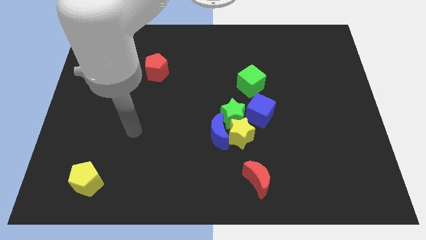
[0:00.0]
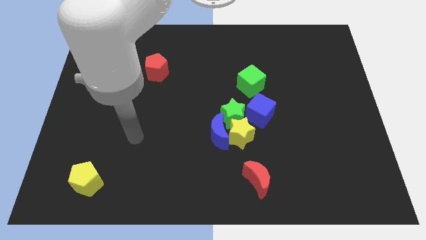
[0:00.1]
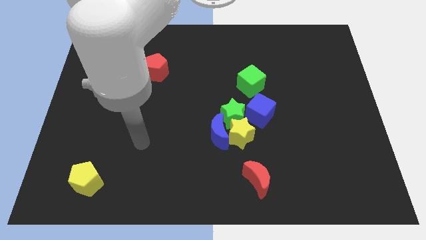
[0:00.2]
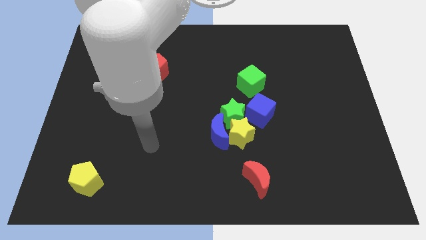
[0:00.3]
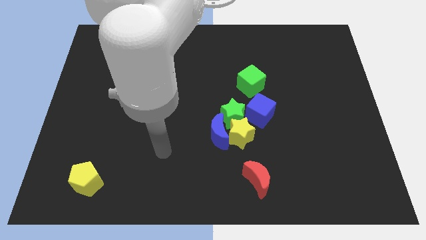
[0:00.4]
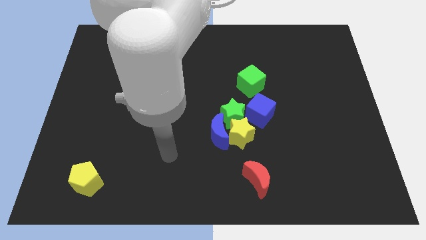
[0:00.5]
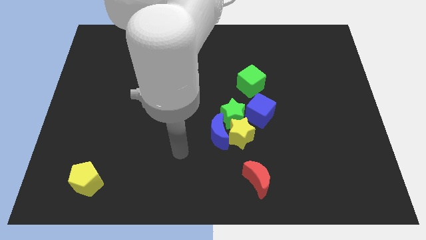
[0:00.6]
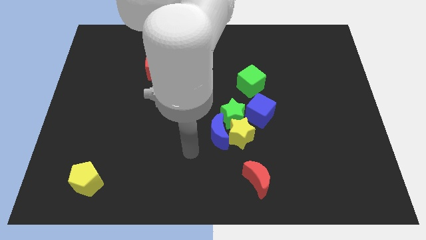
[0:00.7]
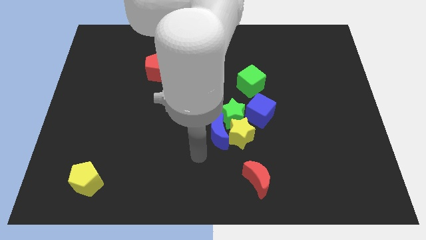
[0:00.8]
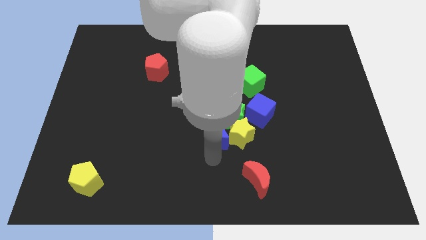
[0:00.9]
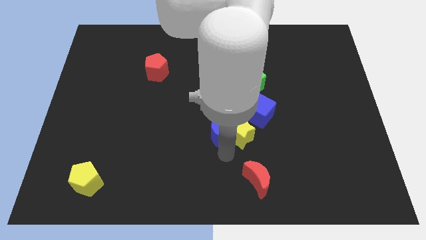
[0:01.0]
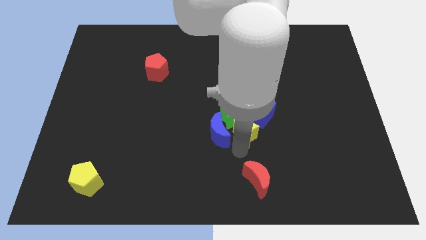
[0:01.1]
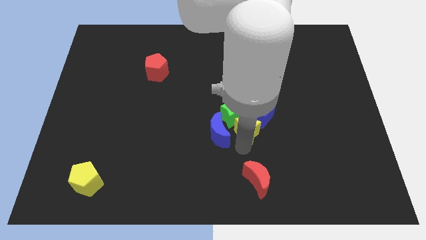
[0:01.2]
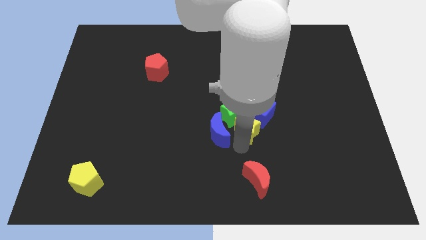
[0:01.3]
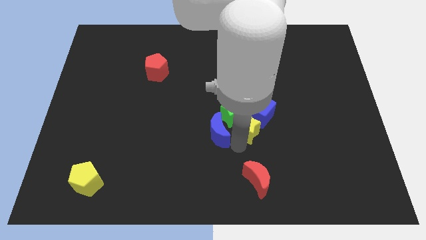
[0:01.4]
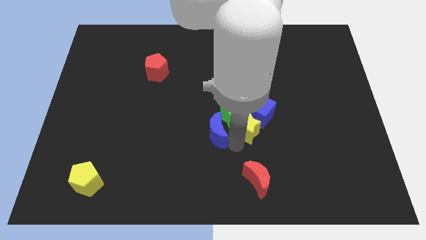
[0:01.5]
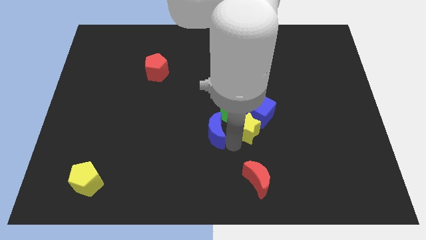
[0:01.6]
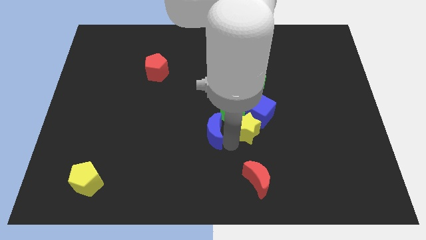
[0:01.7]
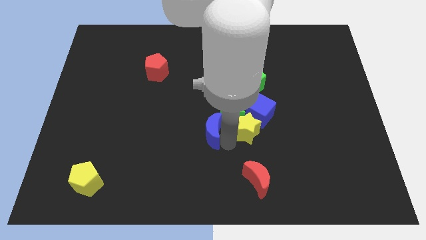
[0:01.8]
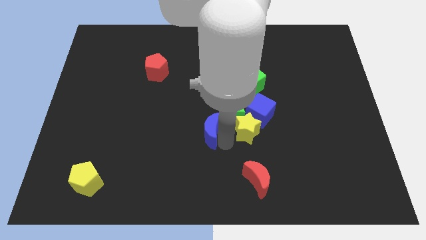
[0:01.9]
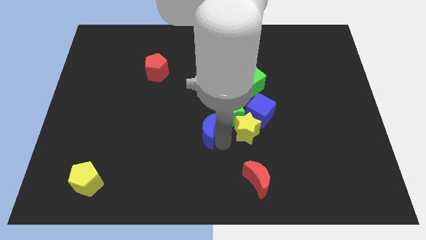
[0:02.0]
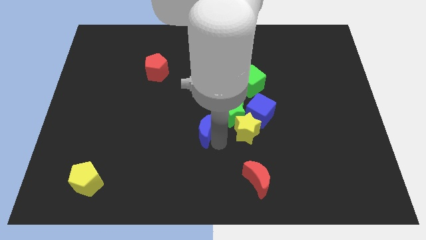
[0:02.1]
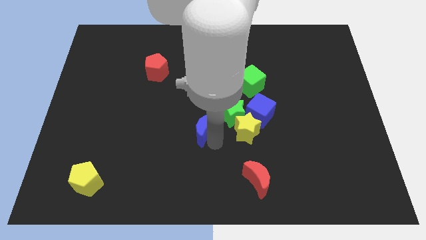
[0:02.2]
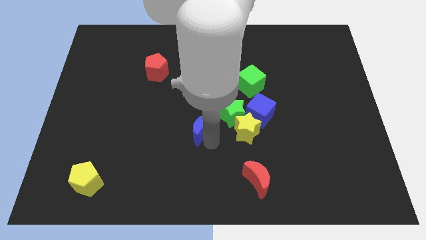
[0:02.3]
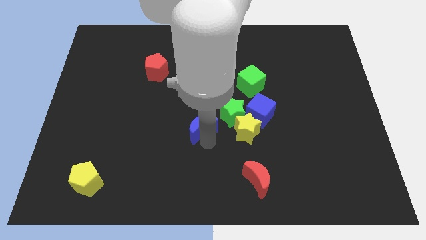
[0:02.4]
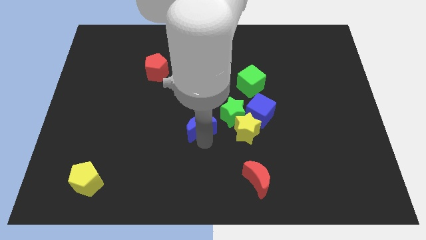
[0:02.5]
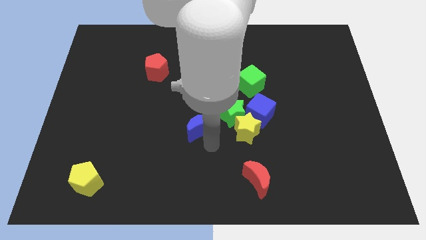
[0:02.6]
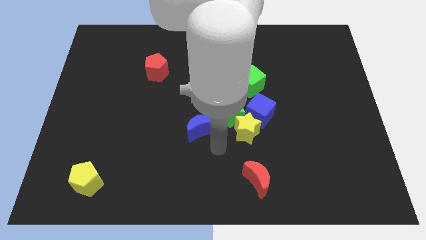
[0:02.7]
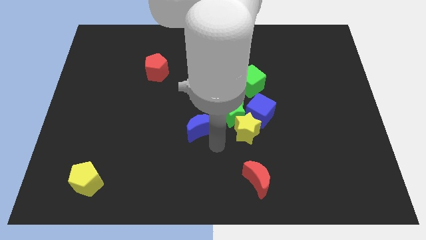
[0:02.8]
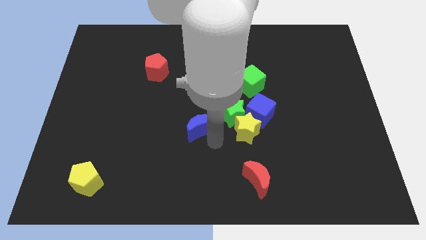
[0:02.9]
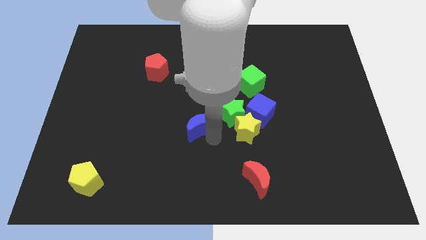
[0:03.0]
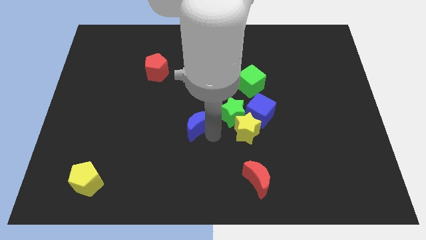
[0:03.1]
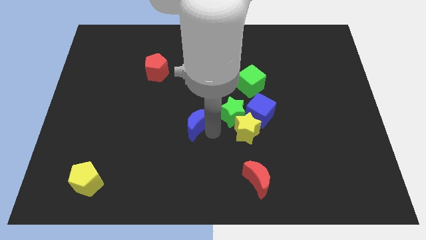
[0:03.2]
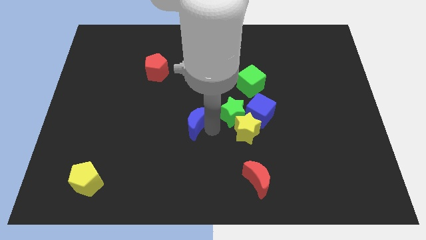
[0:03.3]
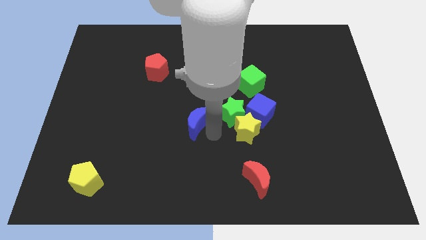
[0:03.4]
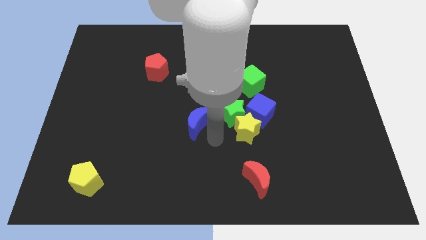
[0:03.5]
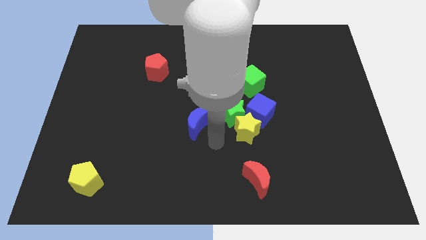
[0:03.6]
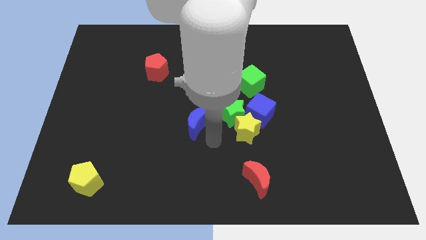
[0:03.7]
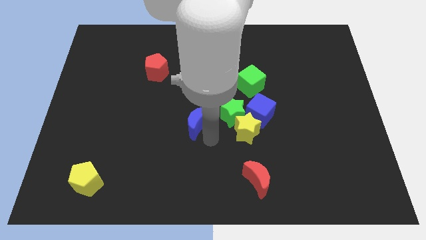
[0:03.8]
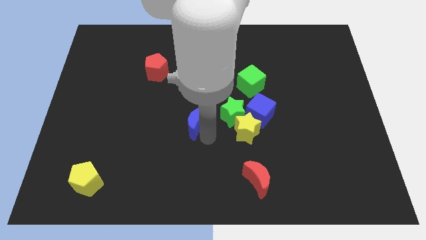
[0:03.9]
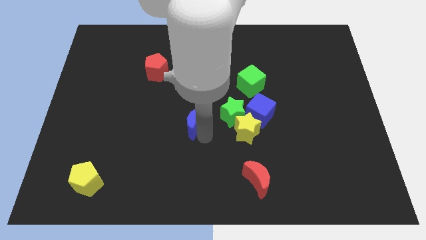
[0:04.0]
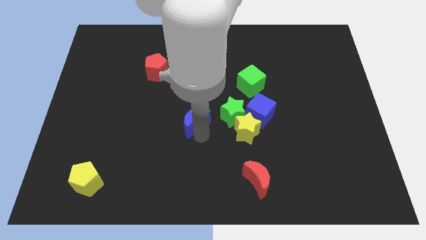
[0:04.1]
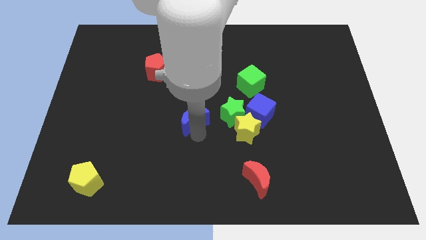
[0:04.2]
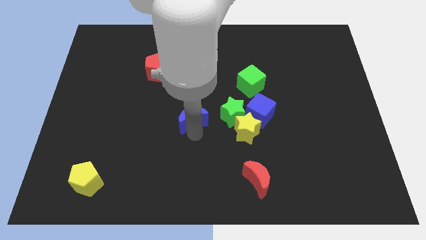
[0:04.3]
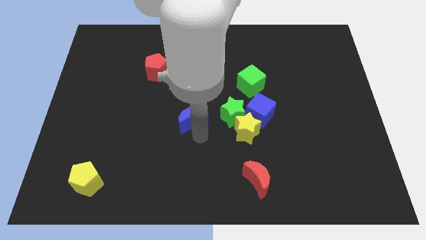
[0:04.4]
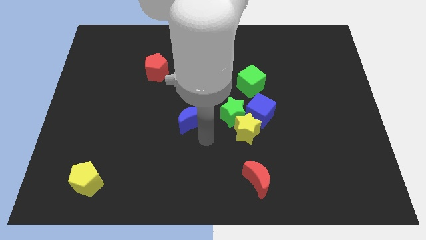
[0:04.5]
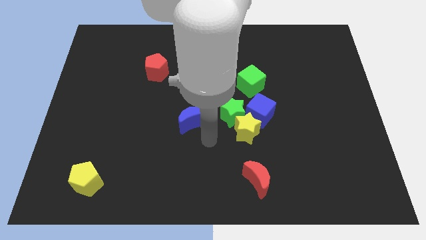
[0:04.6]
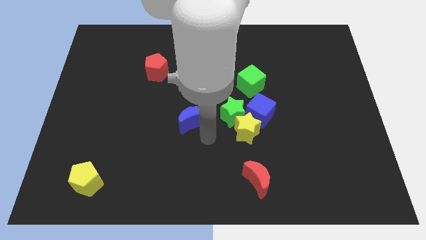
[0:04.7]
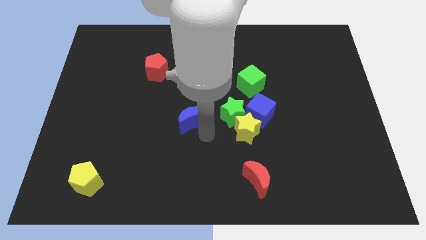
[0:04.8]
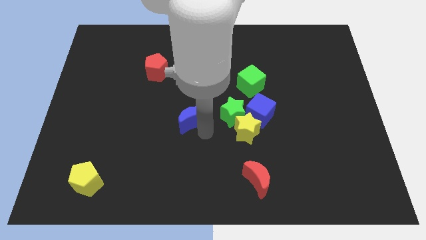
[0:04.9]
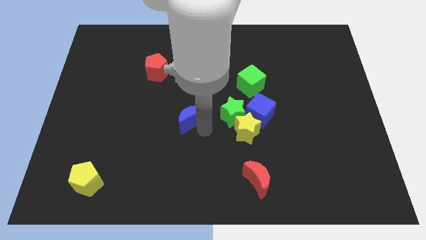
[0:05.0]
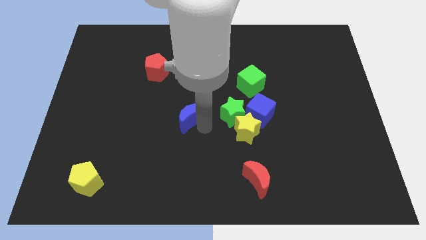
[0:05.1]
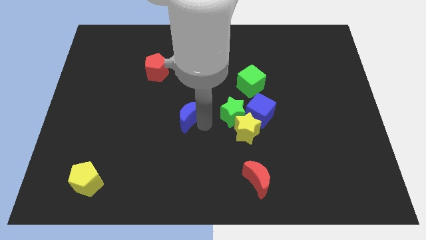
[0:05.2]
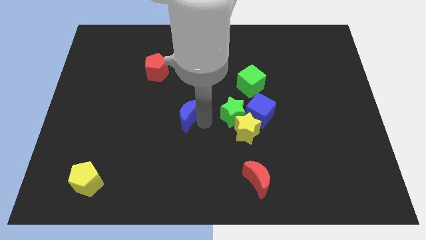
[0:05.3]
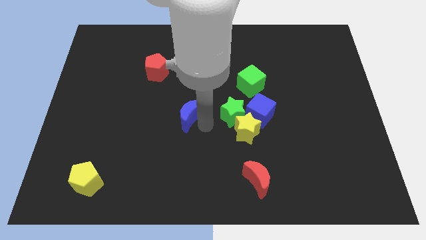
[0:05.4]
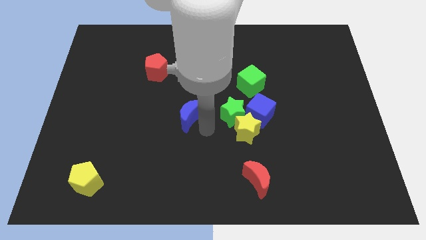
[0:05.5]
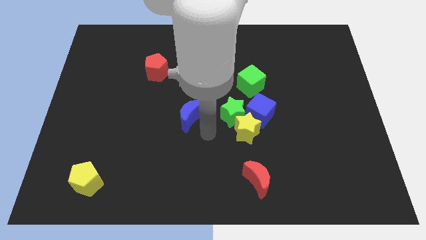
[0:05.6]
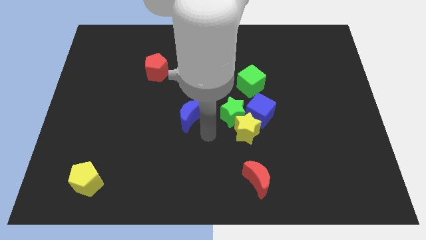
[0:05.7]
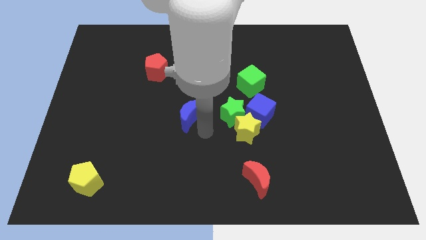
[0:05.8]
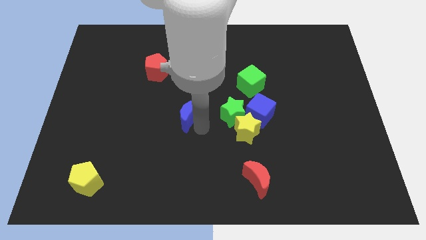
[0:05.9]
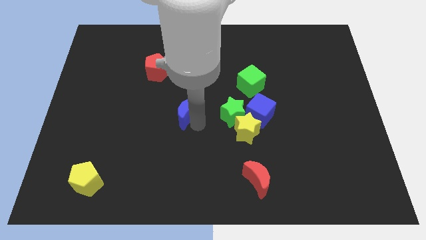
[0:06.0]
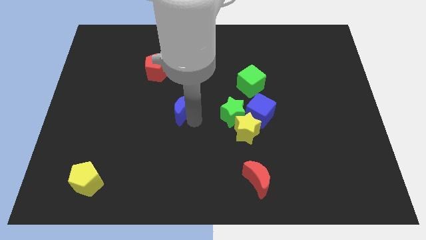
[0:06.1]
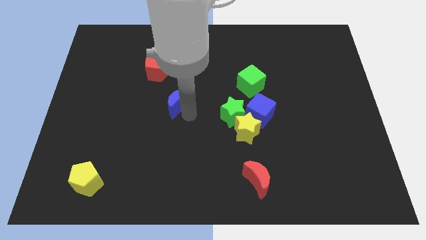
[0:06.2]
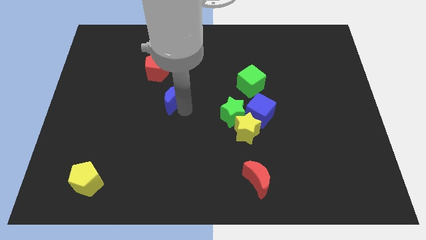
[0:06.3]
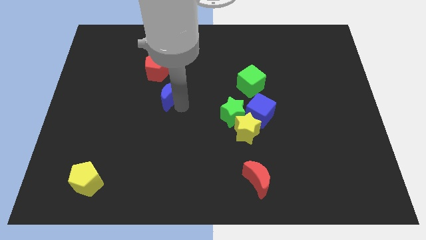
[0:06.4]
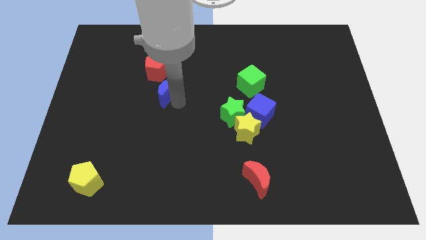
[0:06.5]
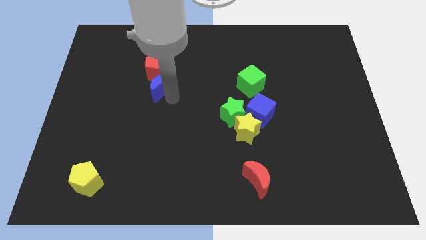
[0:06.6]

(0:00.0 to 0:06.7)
put the blue moon close to the red pentagon

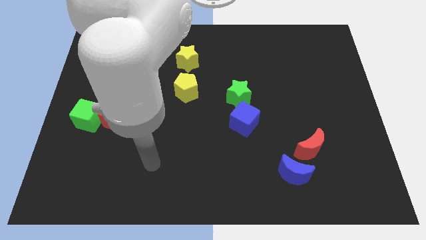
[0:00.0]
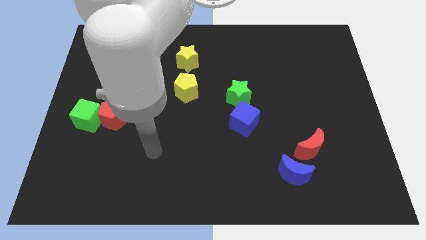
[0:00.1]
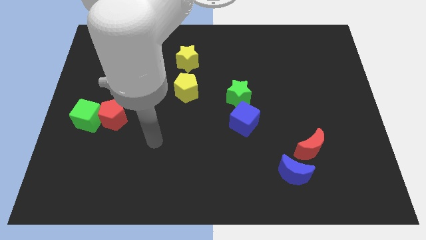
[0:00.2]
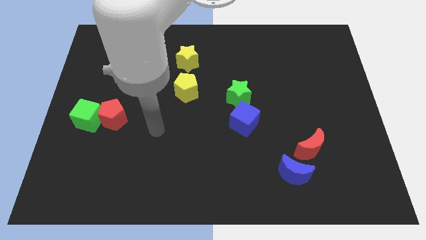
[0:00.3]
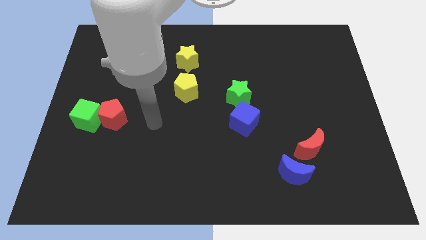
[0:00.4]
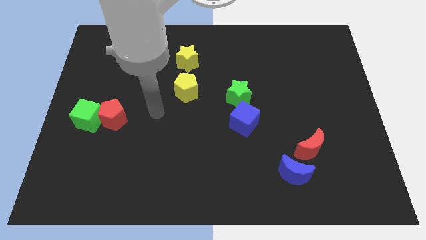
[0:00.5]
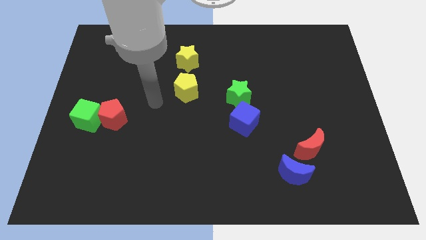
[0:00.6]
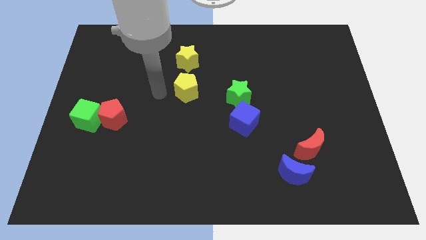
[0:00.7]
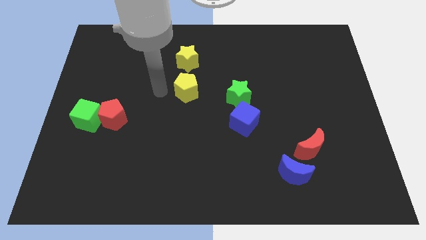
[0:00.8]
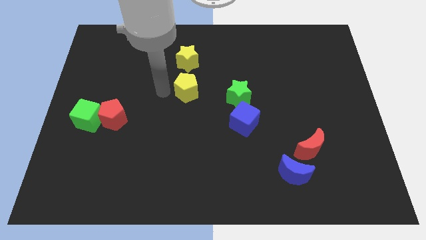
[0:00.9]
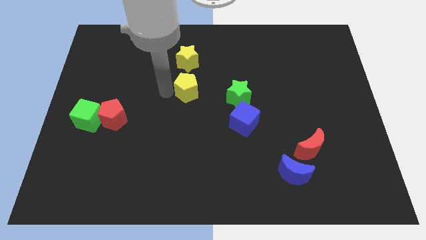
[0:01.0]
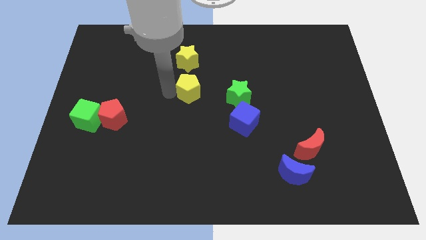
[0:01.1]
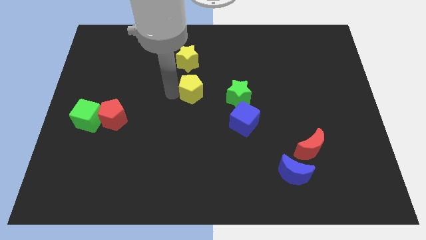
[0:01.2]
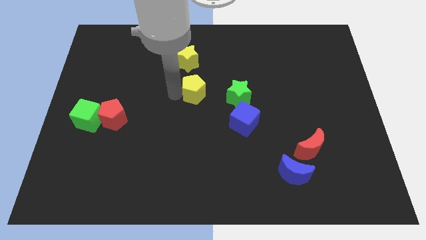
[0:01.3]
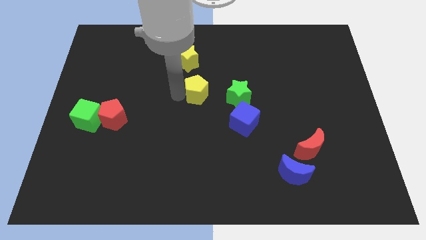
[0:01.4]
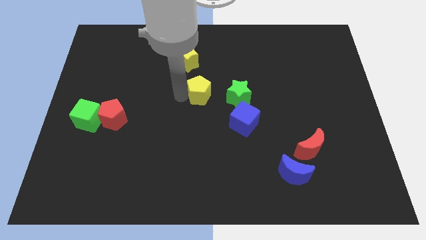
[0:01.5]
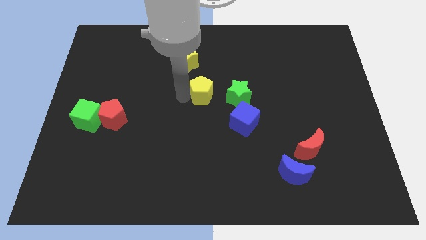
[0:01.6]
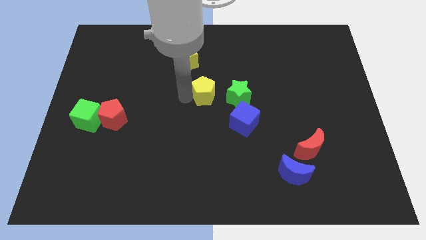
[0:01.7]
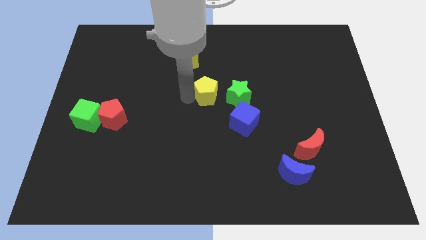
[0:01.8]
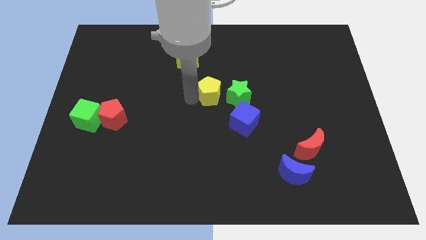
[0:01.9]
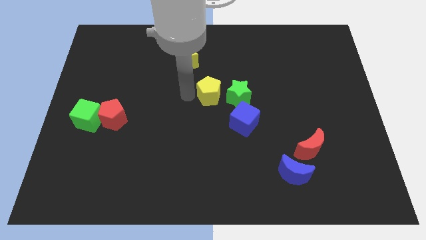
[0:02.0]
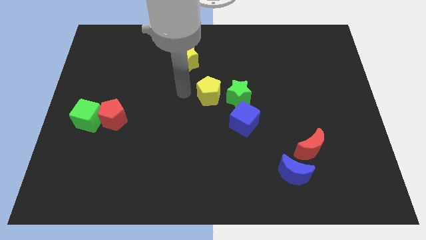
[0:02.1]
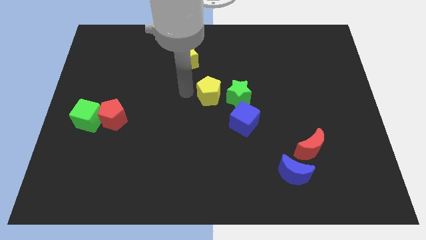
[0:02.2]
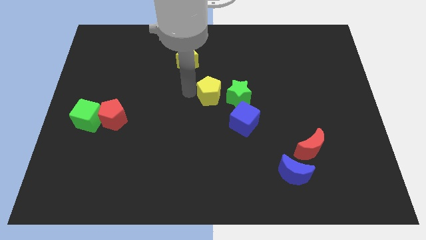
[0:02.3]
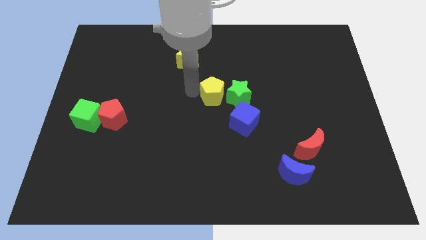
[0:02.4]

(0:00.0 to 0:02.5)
move the yellow pentagon to the green star
